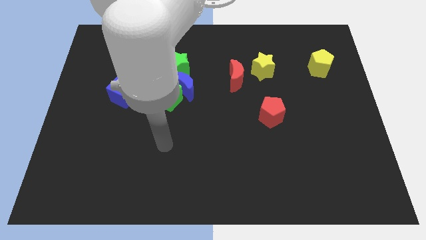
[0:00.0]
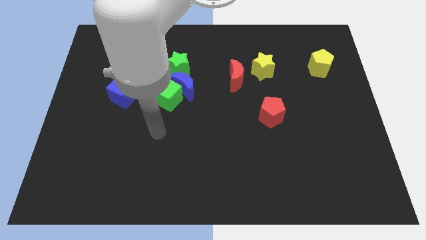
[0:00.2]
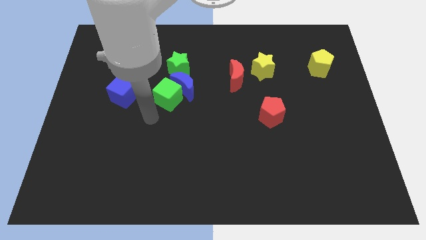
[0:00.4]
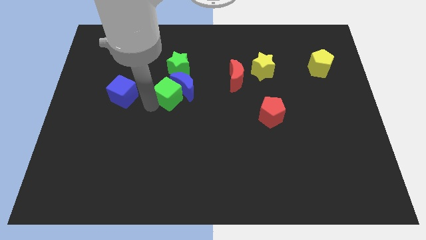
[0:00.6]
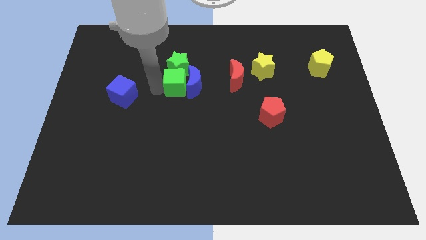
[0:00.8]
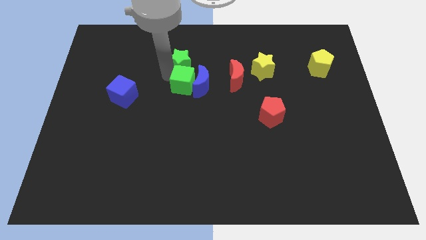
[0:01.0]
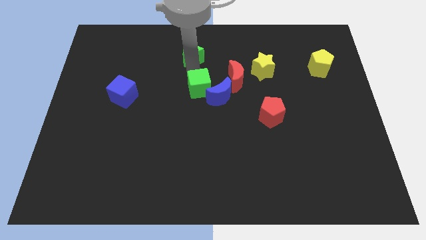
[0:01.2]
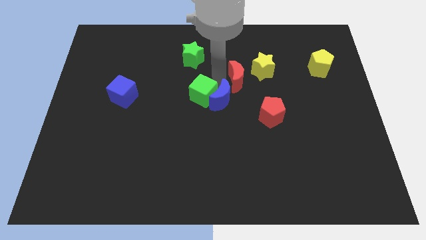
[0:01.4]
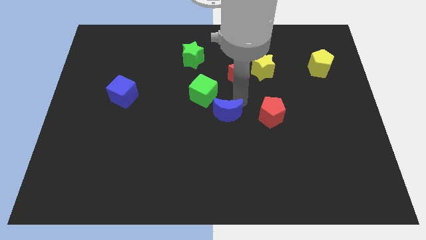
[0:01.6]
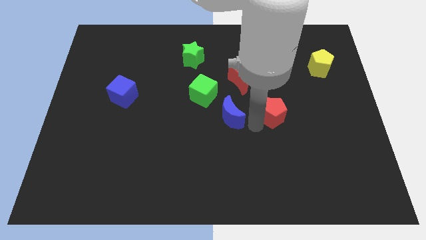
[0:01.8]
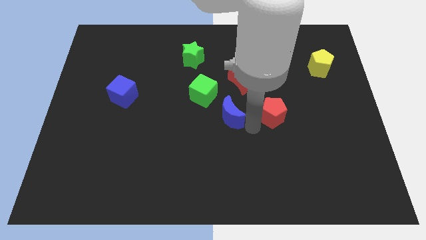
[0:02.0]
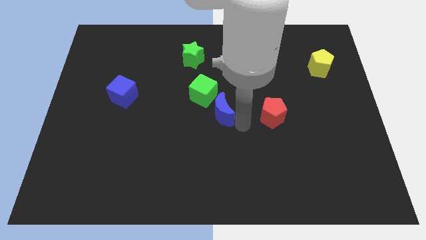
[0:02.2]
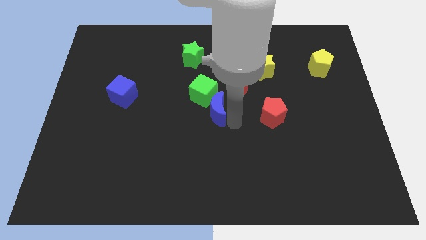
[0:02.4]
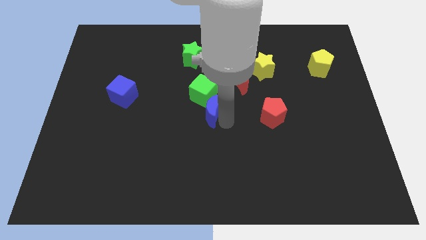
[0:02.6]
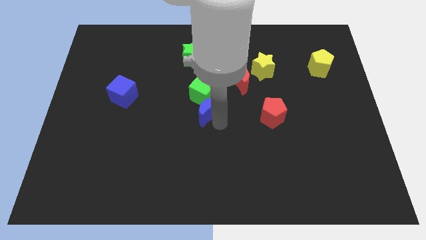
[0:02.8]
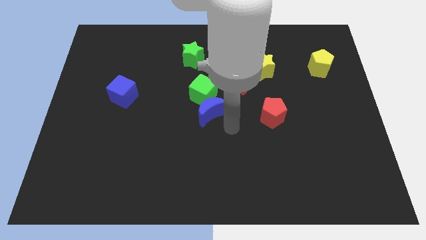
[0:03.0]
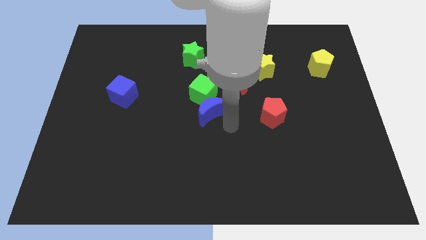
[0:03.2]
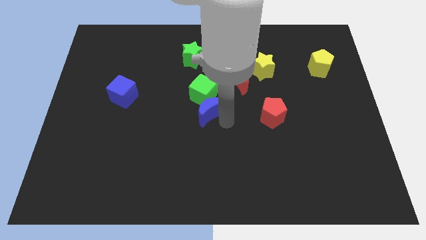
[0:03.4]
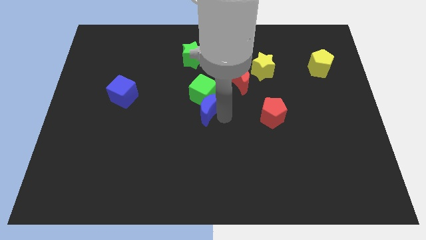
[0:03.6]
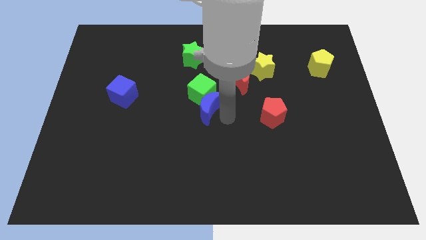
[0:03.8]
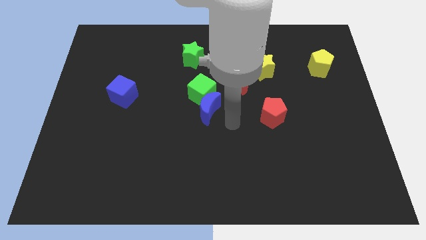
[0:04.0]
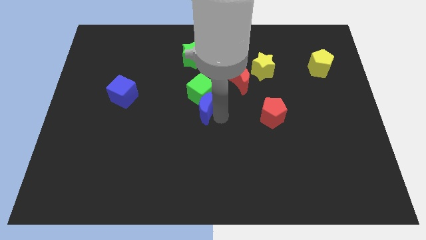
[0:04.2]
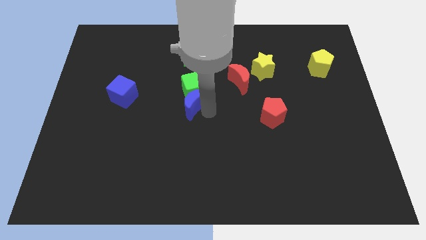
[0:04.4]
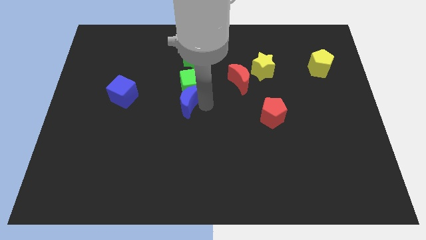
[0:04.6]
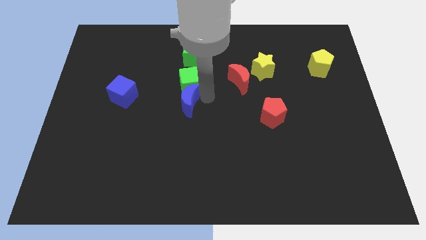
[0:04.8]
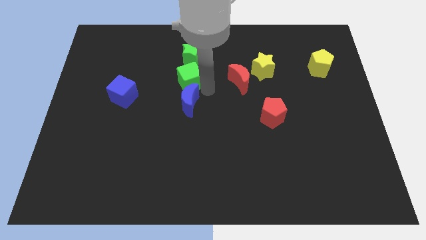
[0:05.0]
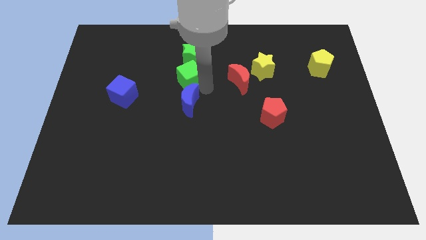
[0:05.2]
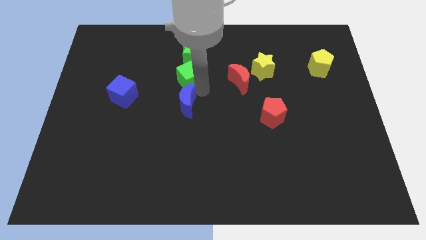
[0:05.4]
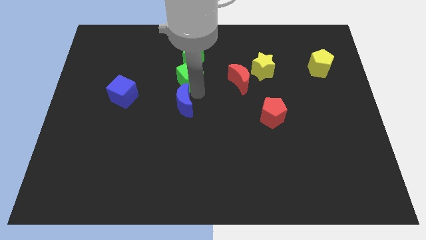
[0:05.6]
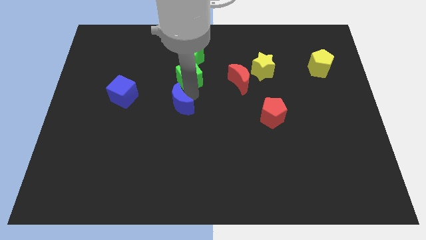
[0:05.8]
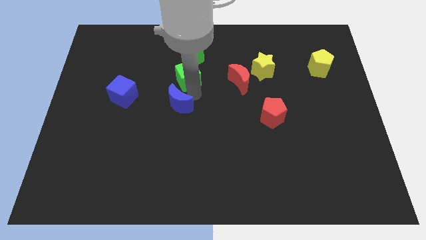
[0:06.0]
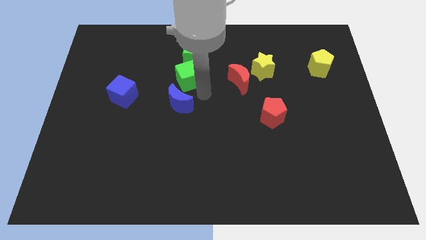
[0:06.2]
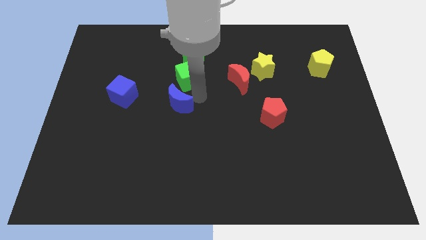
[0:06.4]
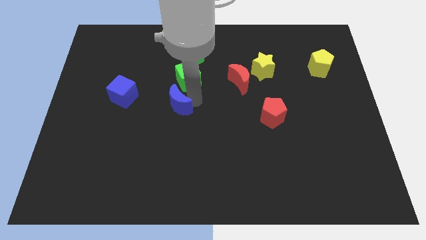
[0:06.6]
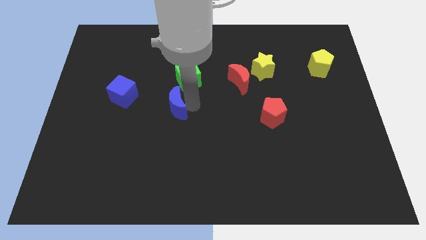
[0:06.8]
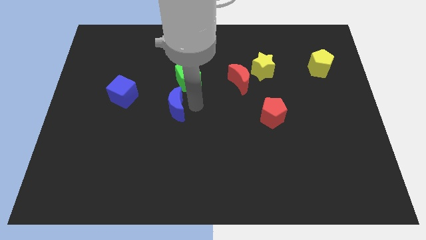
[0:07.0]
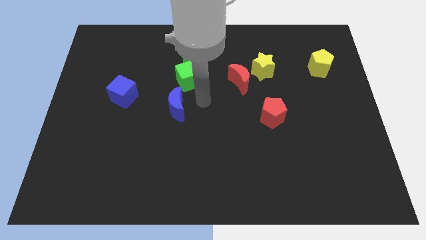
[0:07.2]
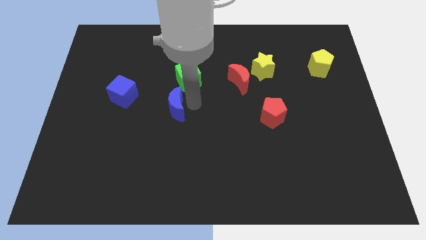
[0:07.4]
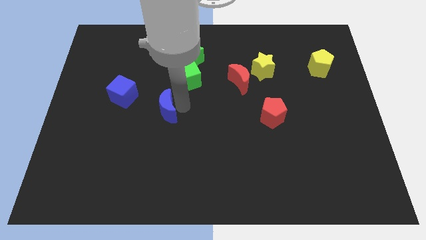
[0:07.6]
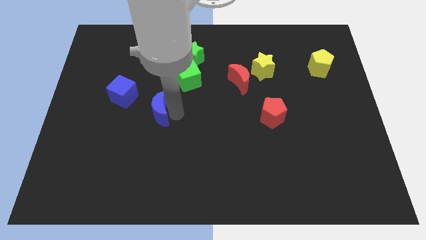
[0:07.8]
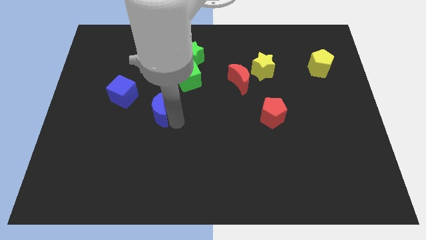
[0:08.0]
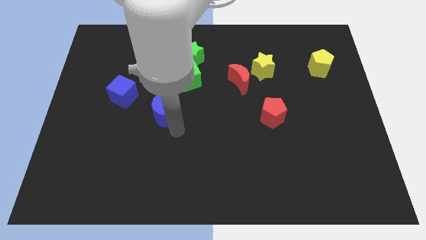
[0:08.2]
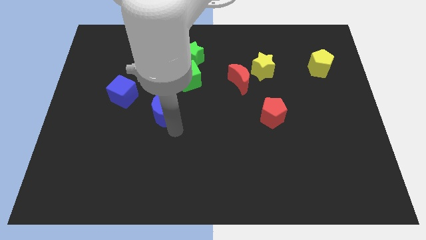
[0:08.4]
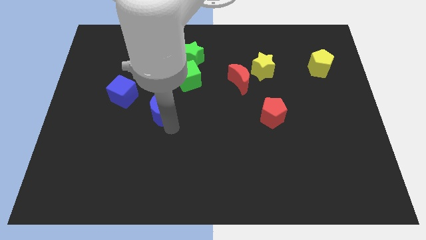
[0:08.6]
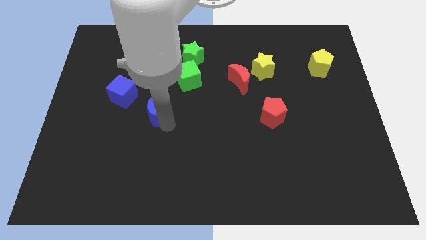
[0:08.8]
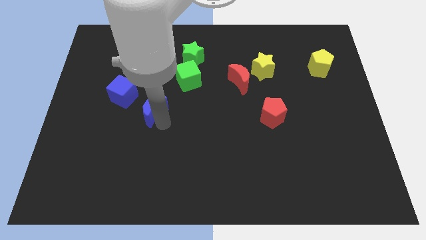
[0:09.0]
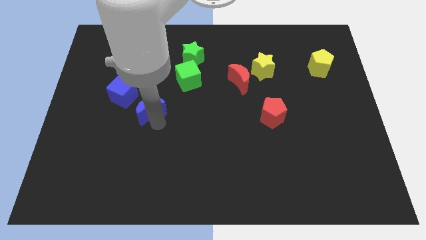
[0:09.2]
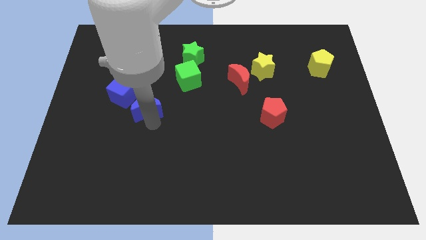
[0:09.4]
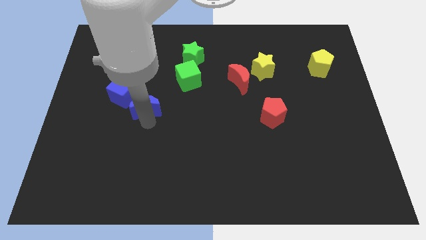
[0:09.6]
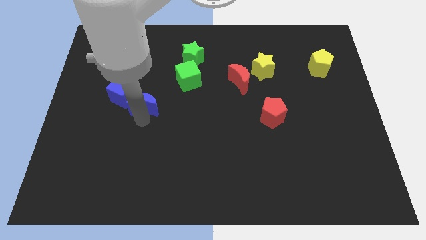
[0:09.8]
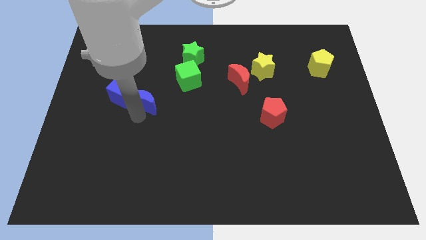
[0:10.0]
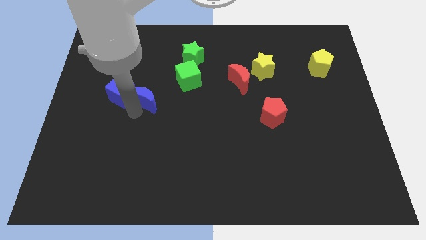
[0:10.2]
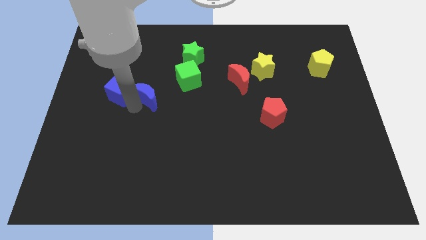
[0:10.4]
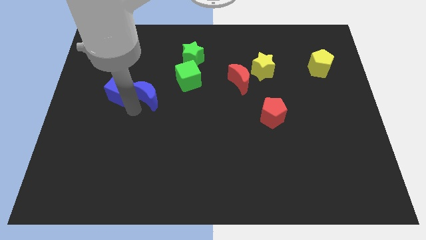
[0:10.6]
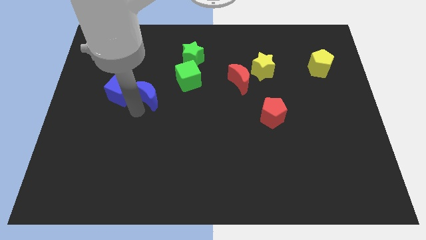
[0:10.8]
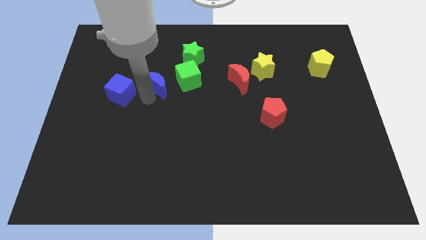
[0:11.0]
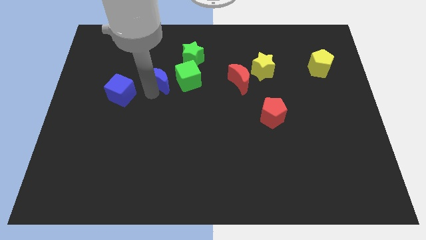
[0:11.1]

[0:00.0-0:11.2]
slide the blue moon to the bottom left of the green star

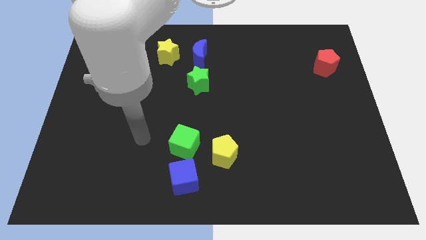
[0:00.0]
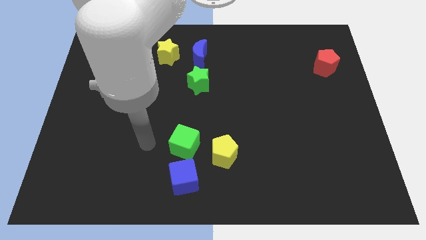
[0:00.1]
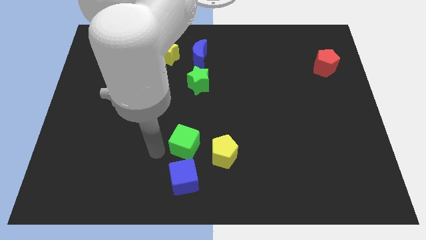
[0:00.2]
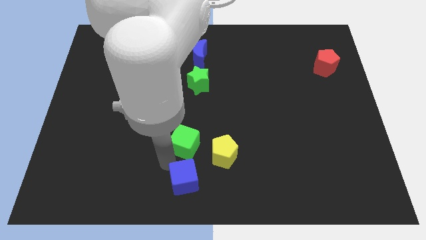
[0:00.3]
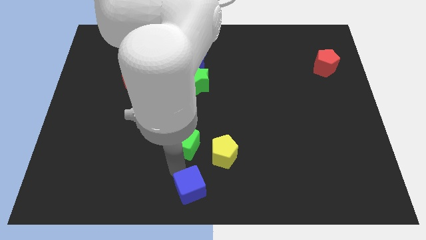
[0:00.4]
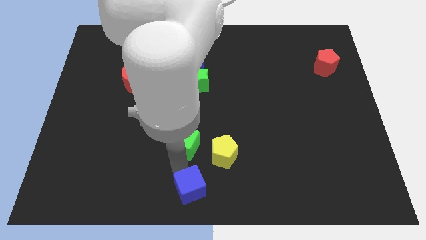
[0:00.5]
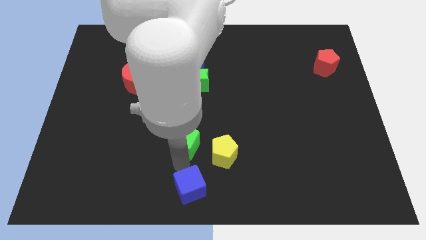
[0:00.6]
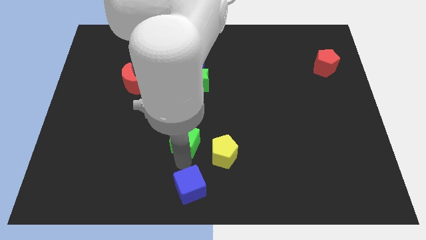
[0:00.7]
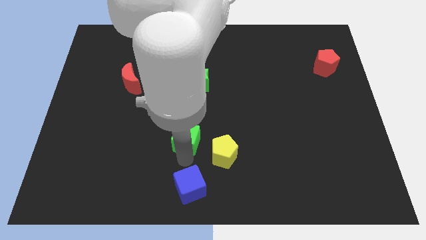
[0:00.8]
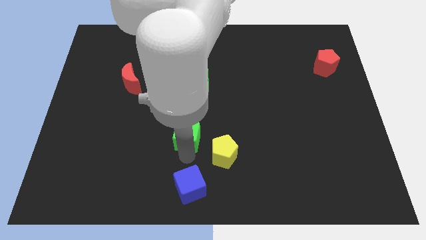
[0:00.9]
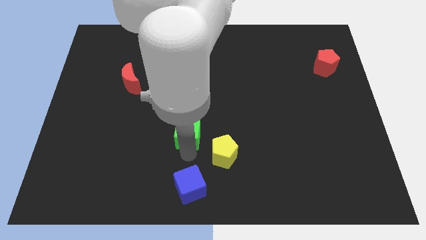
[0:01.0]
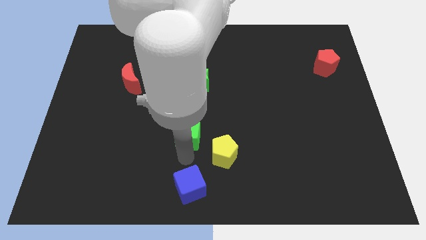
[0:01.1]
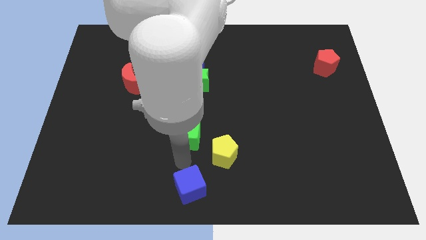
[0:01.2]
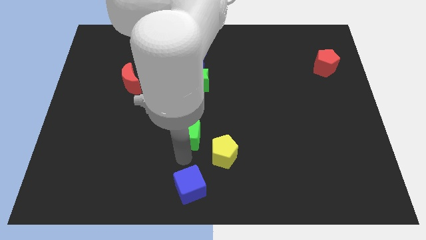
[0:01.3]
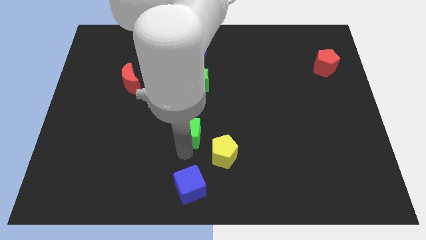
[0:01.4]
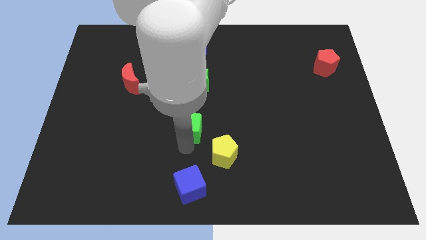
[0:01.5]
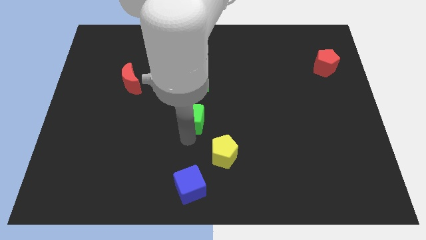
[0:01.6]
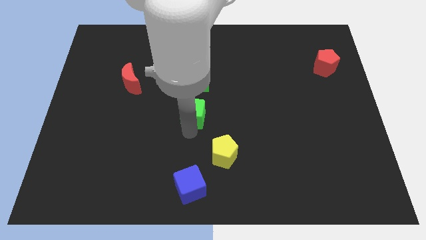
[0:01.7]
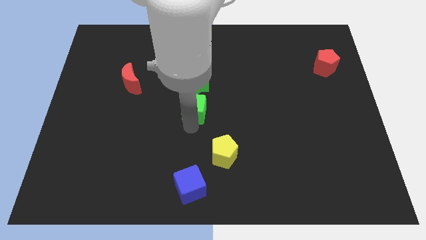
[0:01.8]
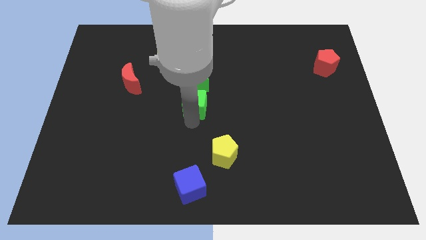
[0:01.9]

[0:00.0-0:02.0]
put the green cube to the bottom of the blue moon

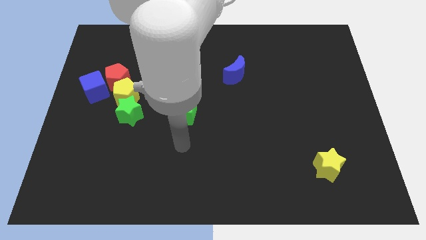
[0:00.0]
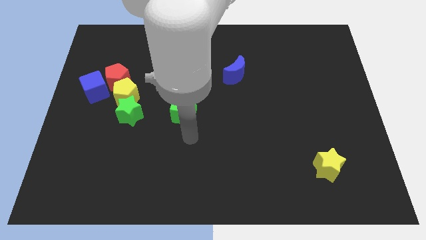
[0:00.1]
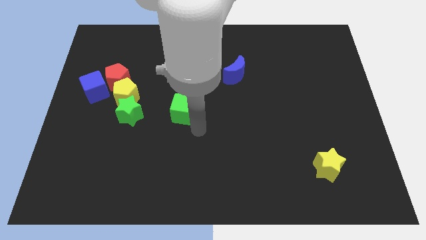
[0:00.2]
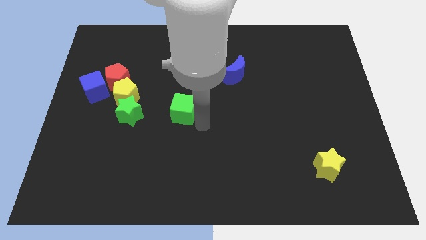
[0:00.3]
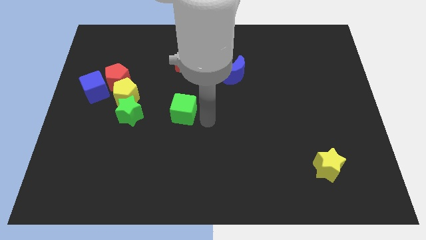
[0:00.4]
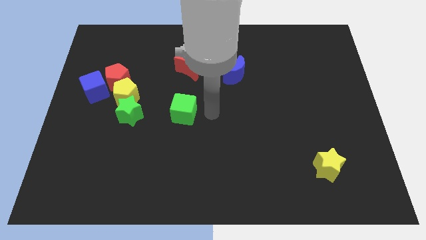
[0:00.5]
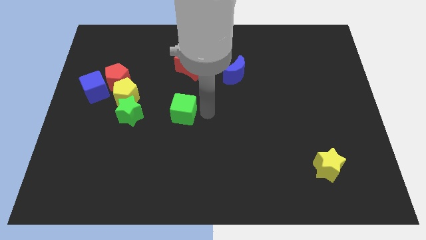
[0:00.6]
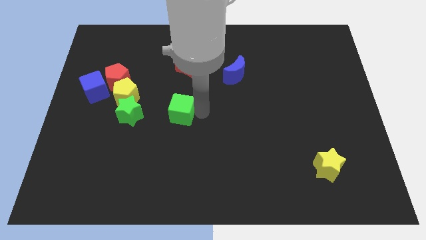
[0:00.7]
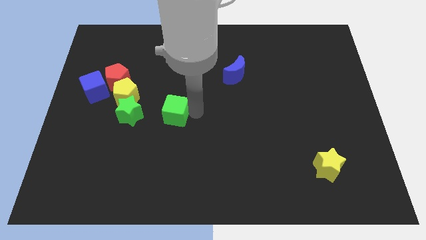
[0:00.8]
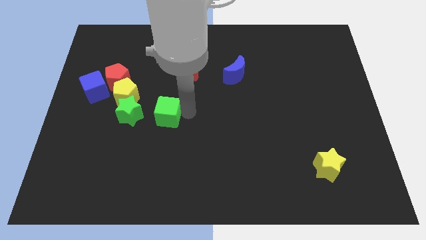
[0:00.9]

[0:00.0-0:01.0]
push the green cube to the bottom right of the yellow pentagon
